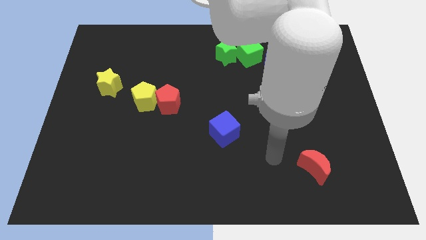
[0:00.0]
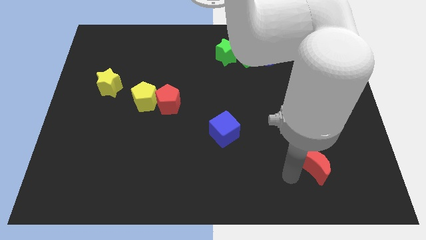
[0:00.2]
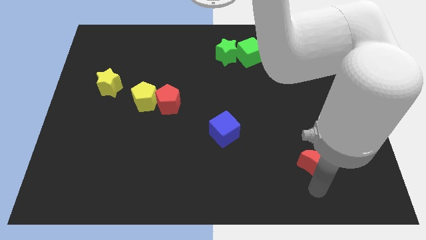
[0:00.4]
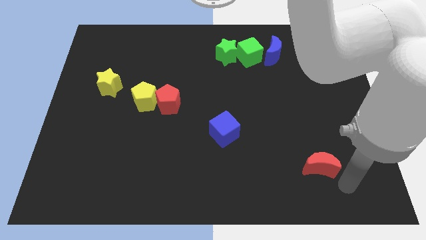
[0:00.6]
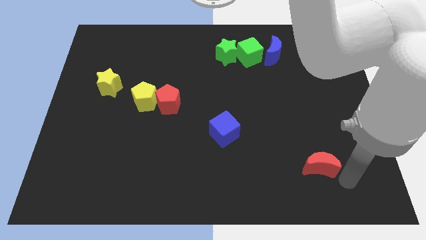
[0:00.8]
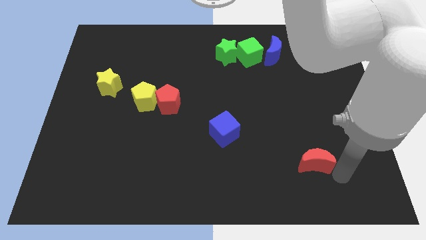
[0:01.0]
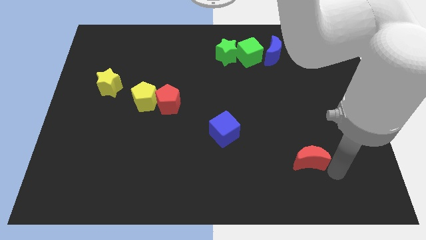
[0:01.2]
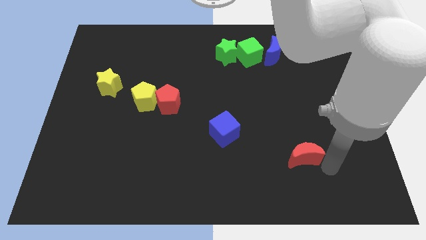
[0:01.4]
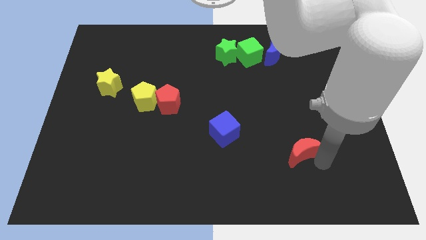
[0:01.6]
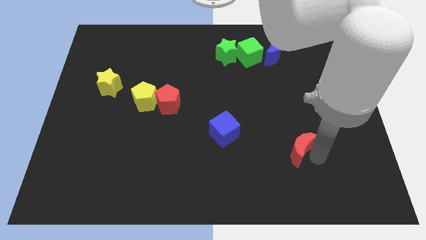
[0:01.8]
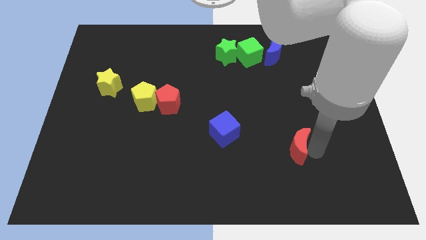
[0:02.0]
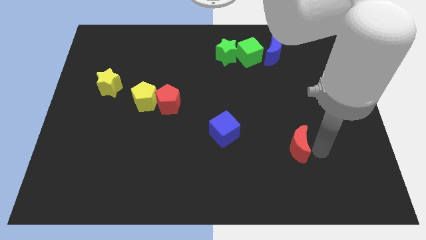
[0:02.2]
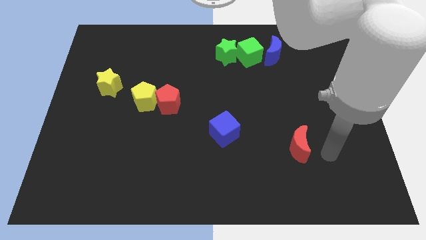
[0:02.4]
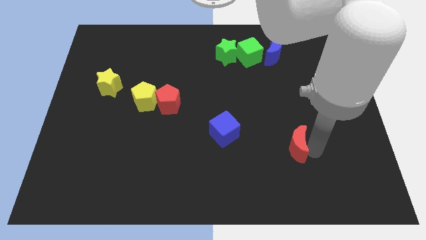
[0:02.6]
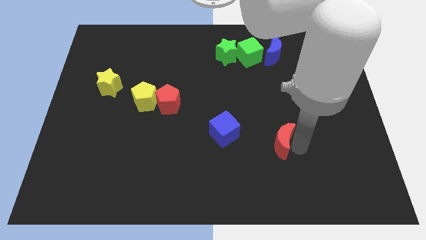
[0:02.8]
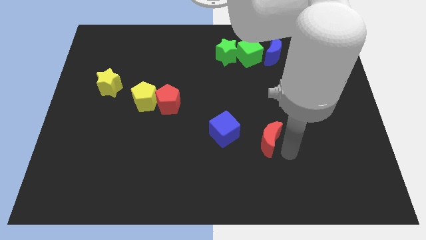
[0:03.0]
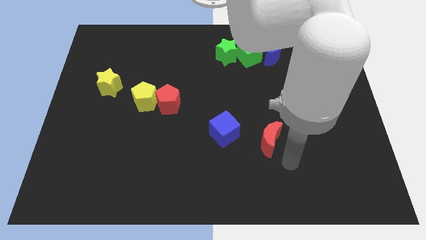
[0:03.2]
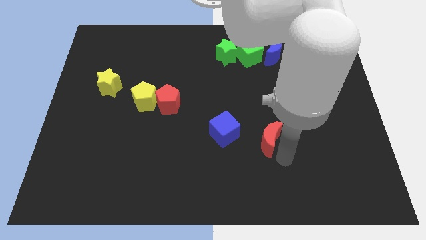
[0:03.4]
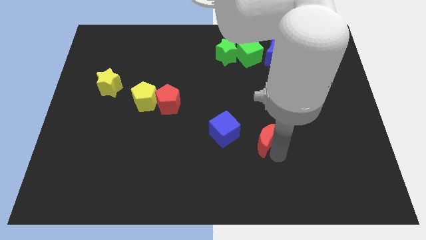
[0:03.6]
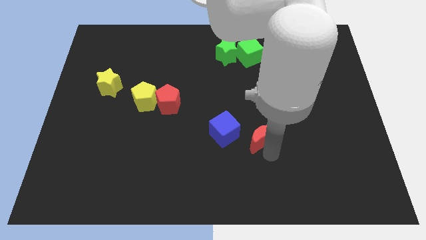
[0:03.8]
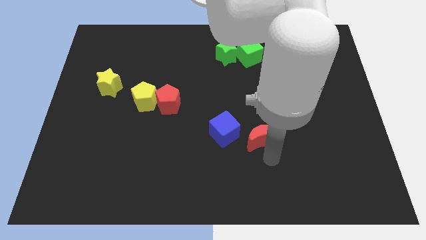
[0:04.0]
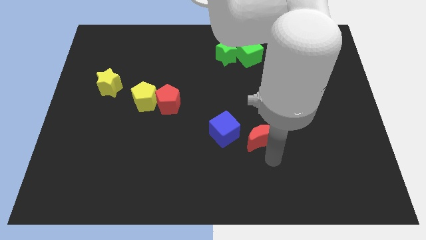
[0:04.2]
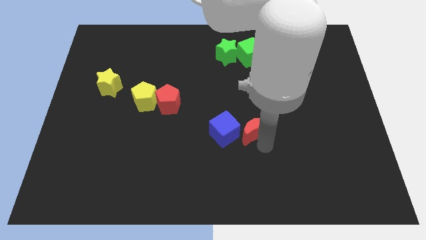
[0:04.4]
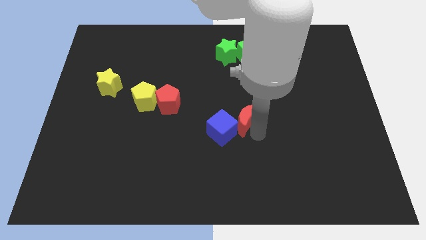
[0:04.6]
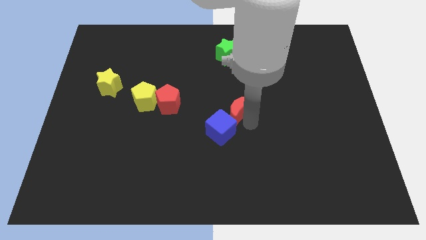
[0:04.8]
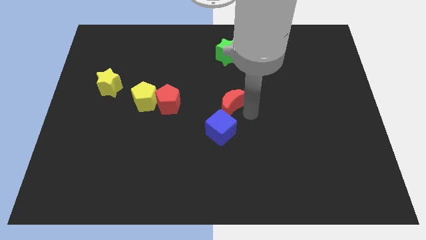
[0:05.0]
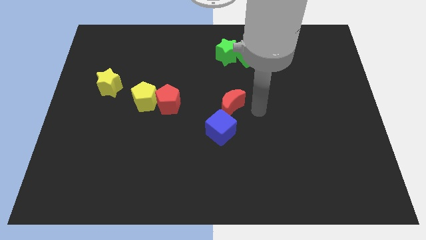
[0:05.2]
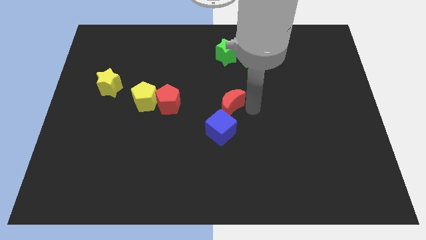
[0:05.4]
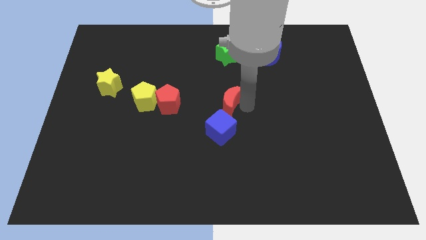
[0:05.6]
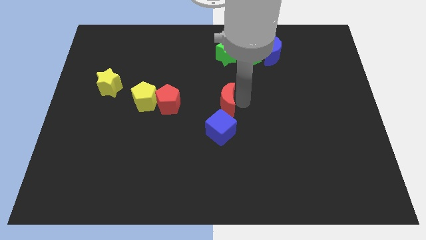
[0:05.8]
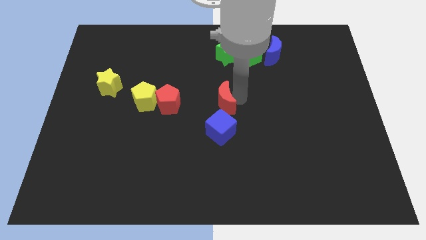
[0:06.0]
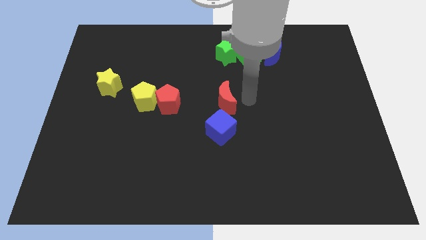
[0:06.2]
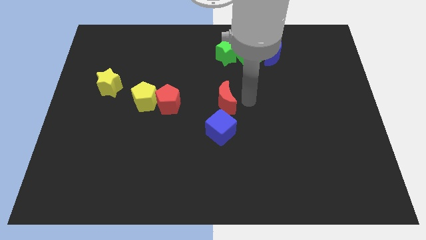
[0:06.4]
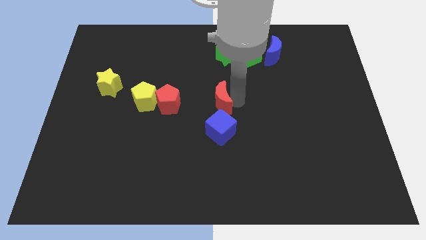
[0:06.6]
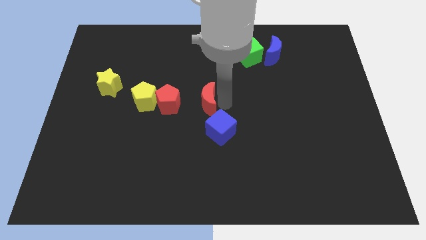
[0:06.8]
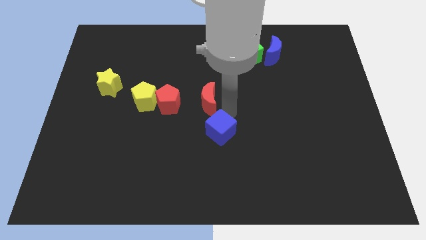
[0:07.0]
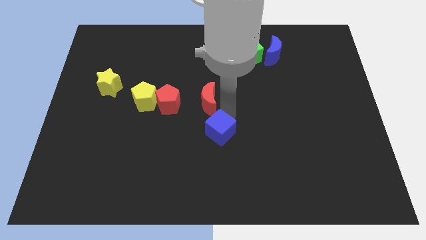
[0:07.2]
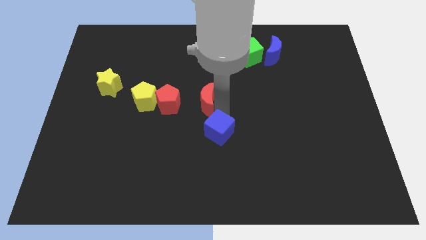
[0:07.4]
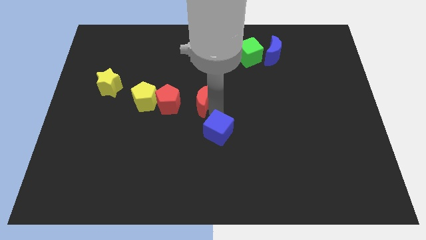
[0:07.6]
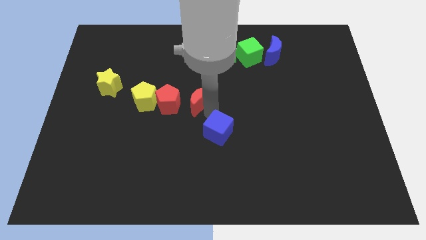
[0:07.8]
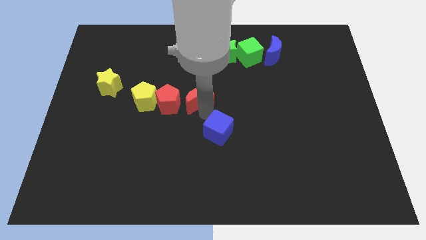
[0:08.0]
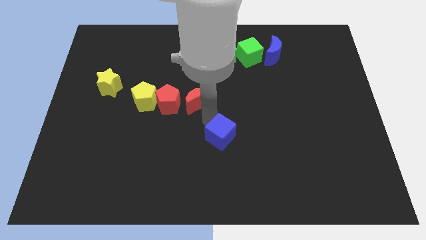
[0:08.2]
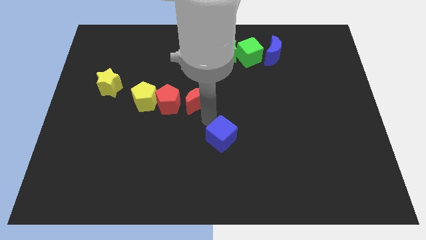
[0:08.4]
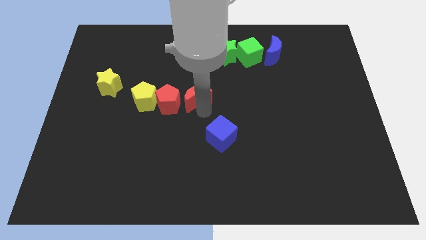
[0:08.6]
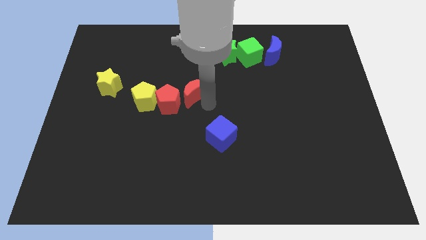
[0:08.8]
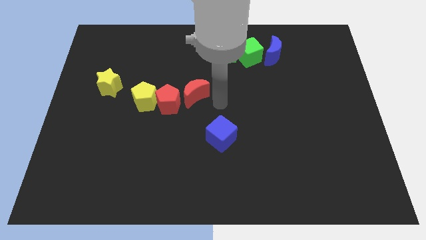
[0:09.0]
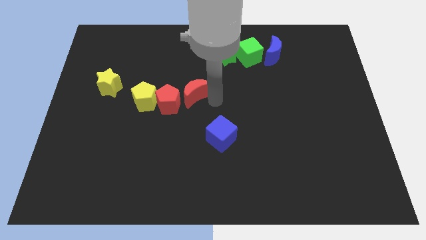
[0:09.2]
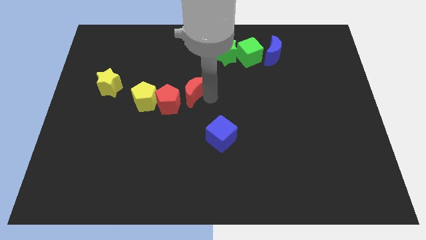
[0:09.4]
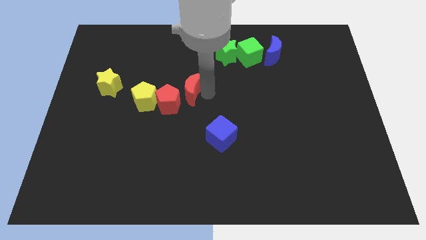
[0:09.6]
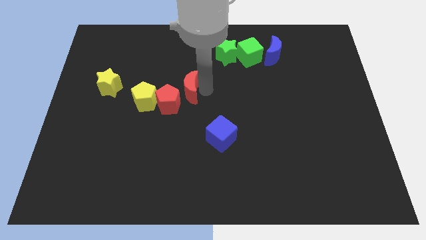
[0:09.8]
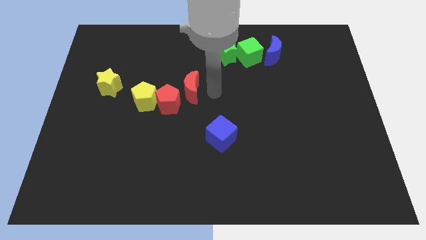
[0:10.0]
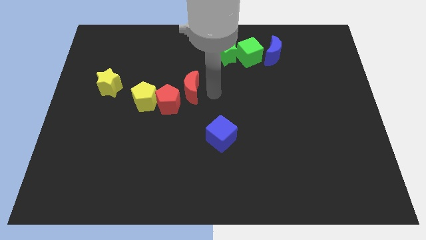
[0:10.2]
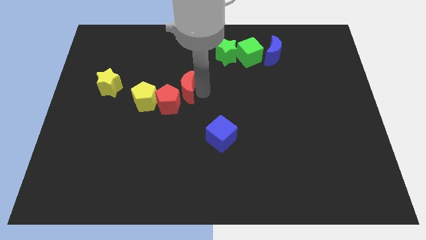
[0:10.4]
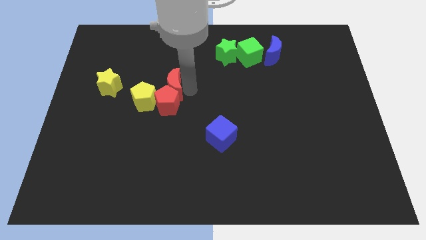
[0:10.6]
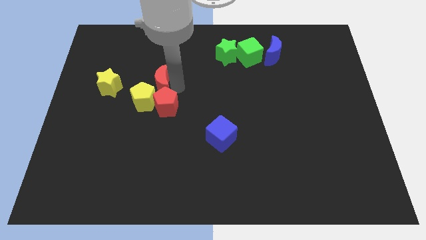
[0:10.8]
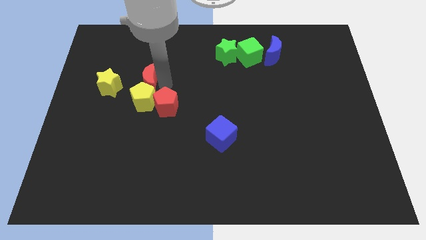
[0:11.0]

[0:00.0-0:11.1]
slide the red moon diagonally up and to the left of the yellow pentagon
